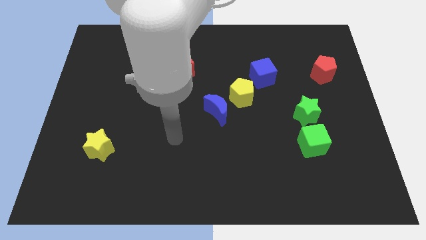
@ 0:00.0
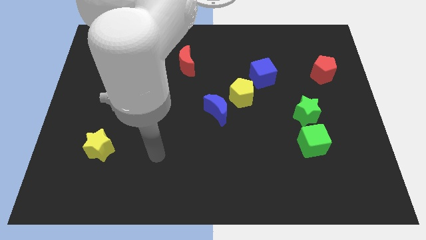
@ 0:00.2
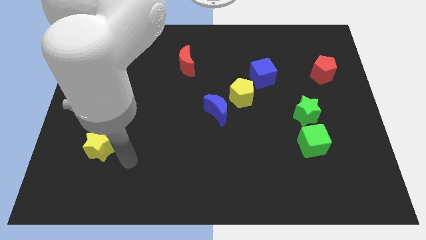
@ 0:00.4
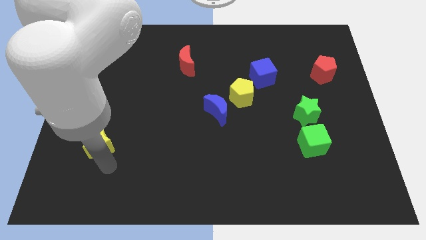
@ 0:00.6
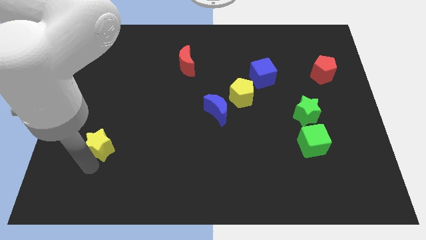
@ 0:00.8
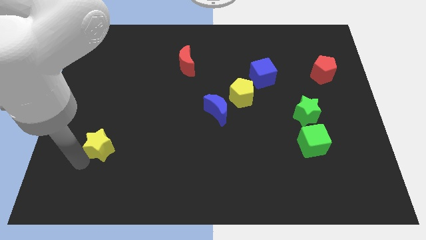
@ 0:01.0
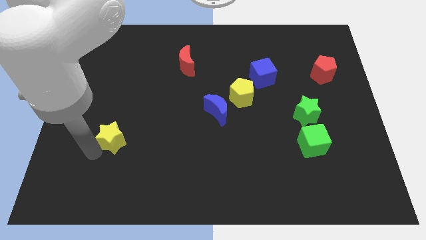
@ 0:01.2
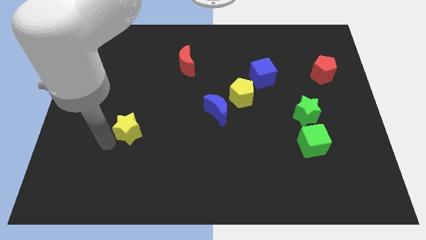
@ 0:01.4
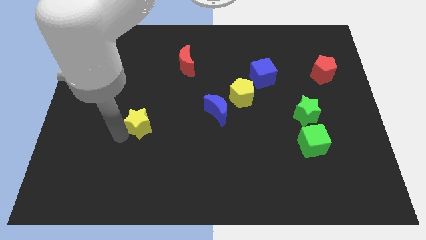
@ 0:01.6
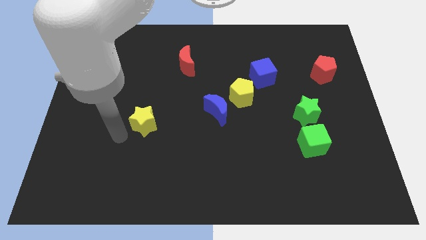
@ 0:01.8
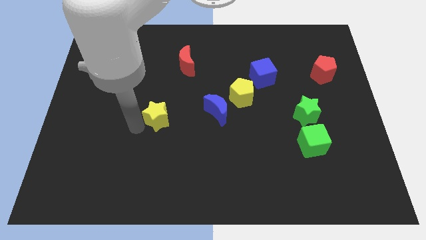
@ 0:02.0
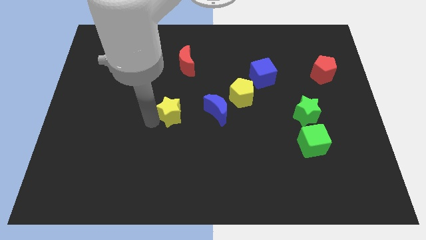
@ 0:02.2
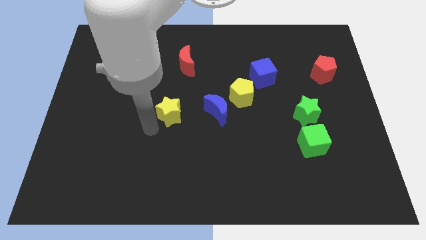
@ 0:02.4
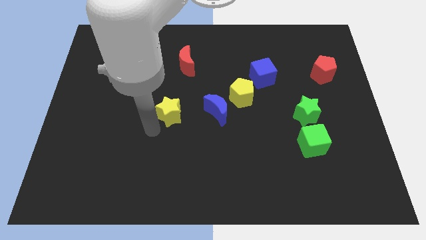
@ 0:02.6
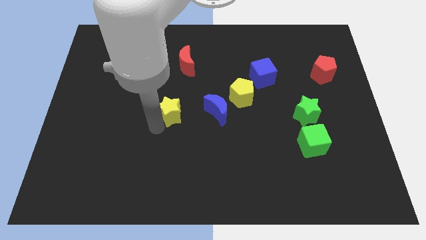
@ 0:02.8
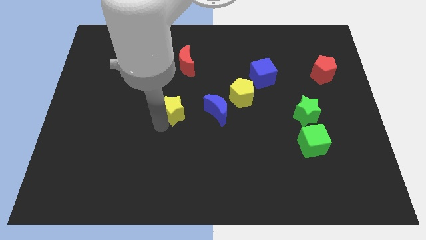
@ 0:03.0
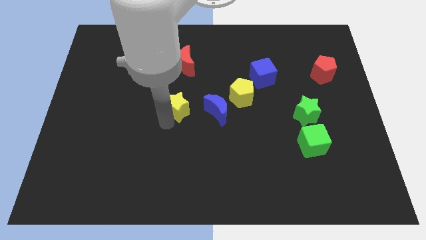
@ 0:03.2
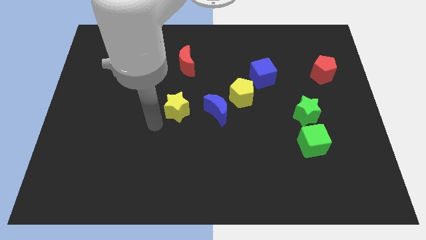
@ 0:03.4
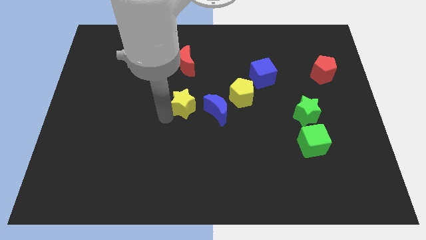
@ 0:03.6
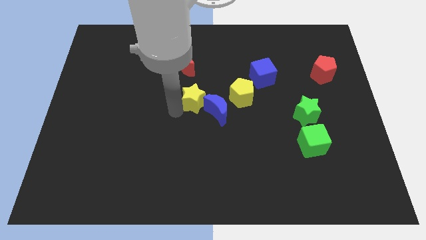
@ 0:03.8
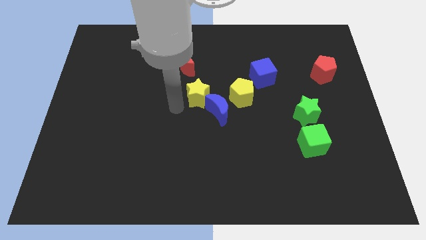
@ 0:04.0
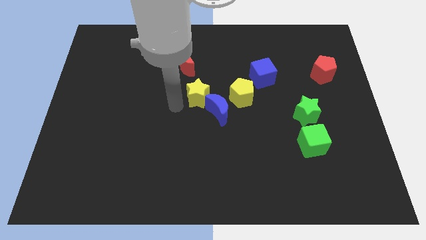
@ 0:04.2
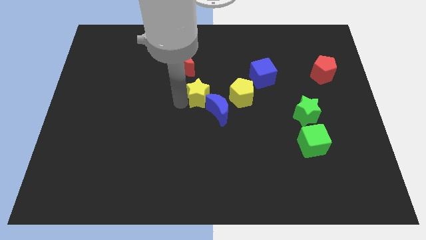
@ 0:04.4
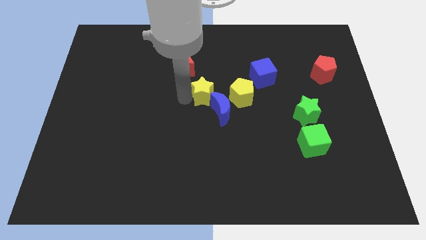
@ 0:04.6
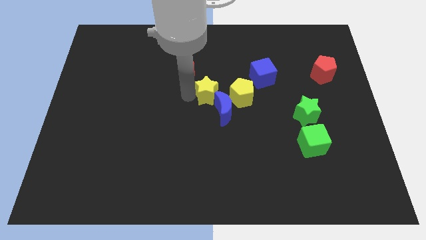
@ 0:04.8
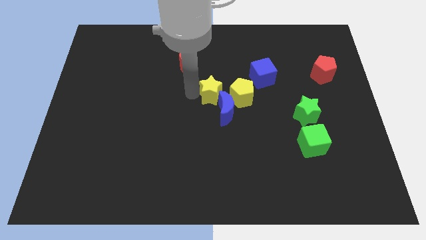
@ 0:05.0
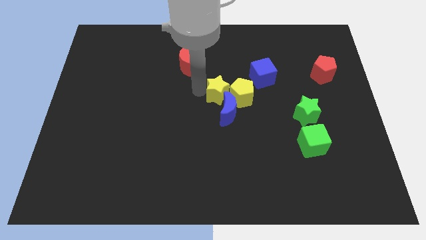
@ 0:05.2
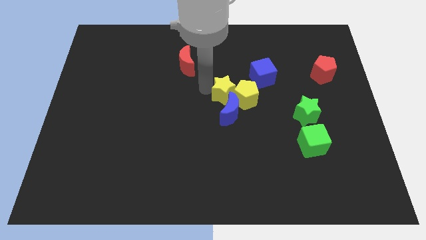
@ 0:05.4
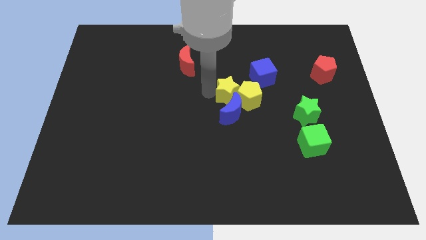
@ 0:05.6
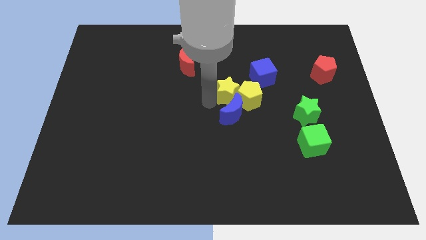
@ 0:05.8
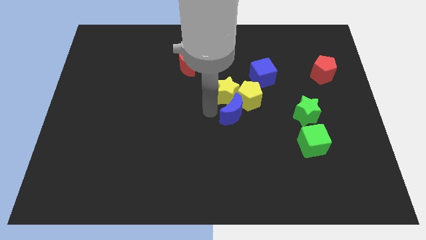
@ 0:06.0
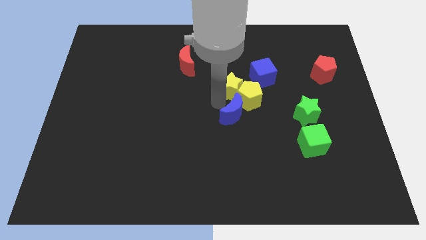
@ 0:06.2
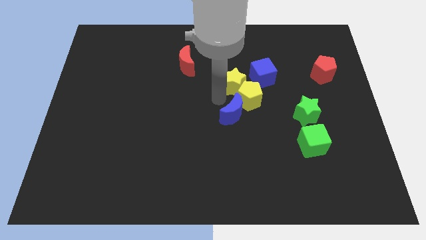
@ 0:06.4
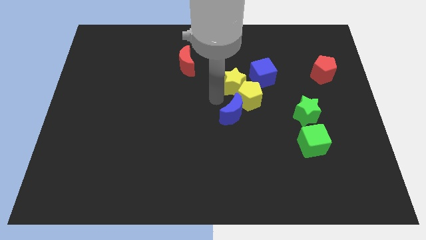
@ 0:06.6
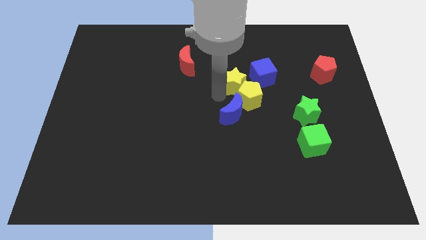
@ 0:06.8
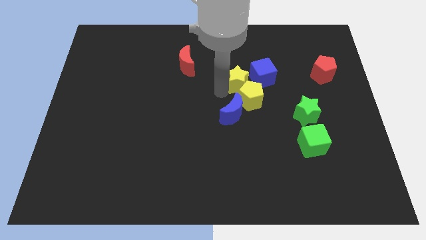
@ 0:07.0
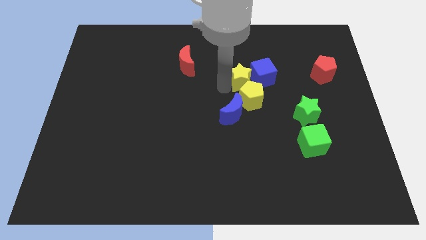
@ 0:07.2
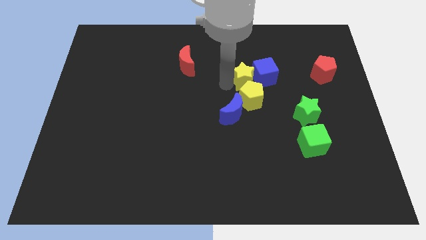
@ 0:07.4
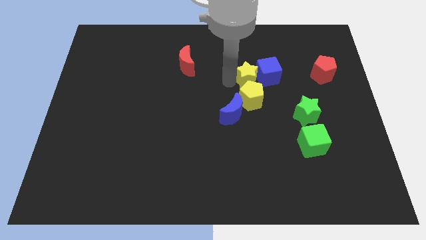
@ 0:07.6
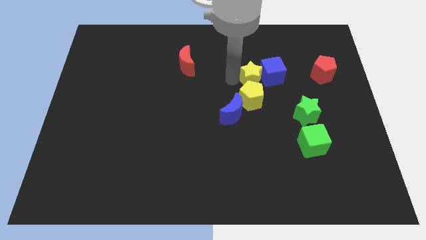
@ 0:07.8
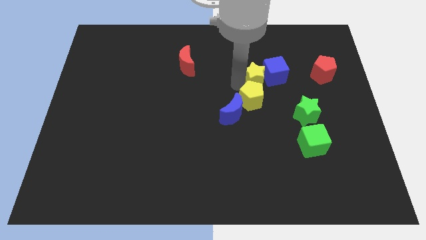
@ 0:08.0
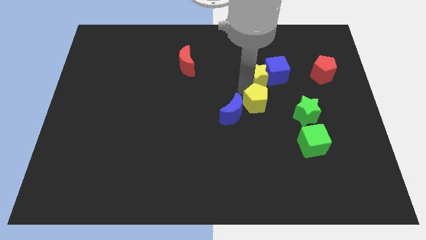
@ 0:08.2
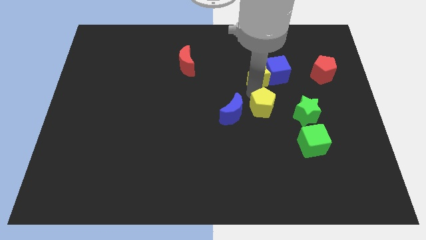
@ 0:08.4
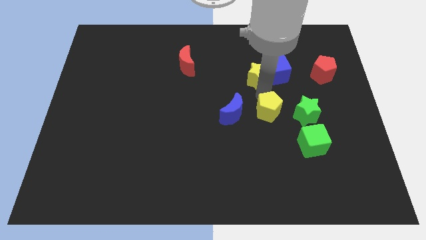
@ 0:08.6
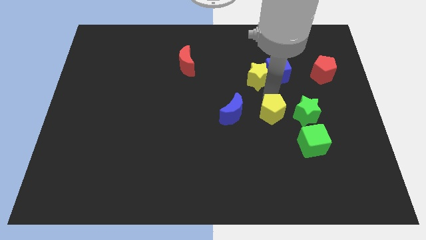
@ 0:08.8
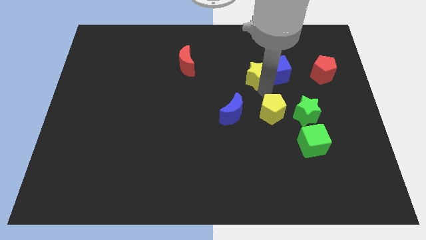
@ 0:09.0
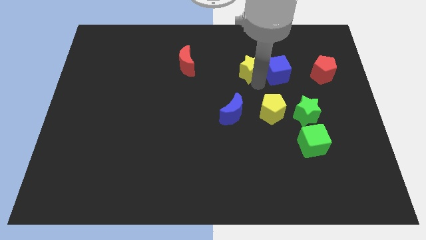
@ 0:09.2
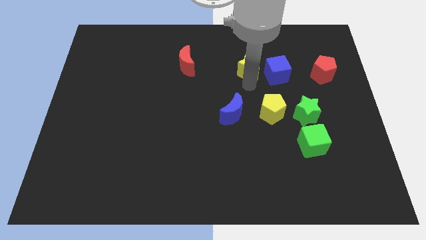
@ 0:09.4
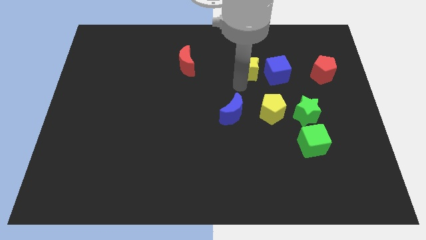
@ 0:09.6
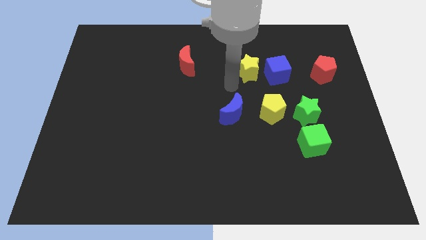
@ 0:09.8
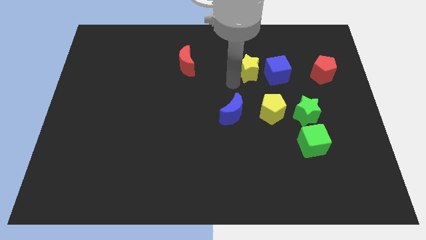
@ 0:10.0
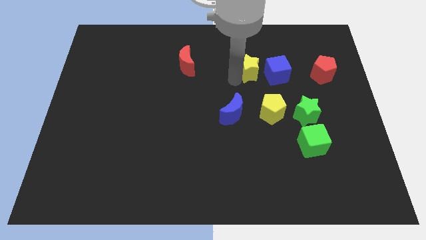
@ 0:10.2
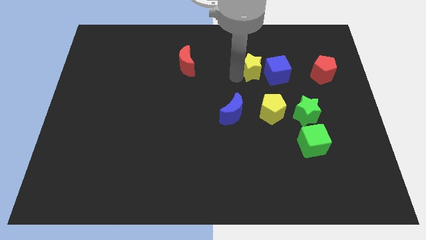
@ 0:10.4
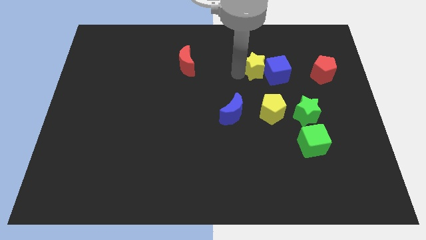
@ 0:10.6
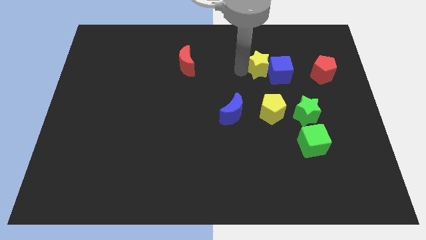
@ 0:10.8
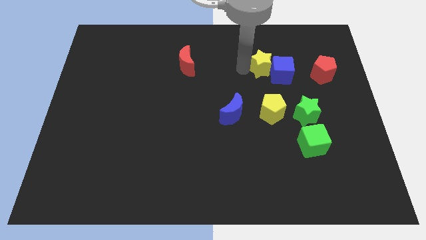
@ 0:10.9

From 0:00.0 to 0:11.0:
move the yellow star to the left side of the red pentagon

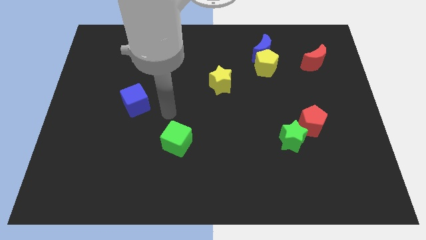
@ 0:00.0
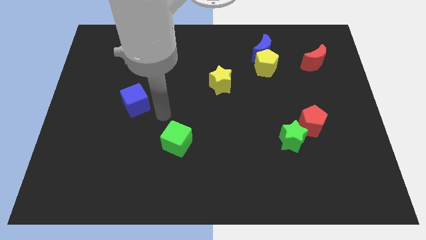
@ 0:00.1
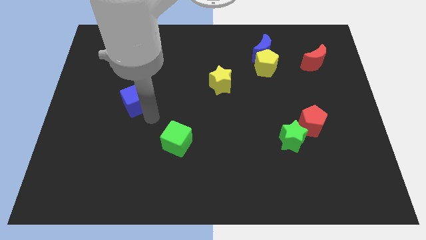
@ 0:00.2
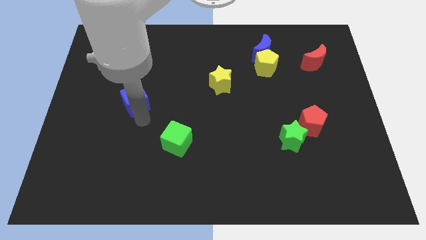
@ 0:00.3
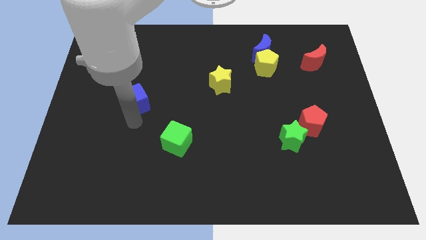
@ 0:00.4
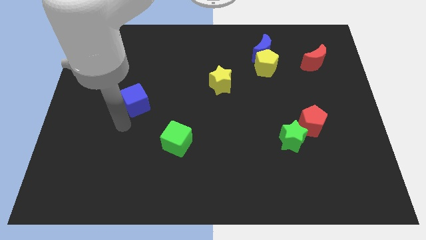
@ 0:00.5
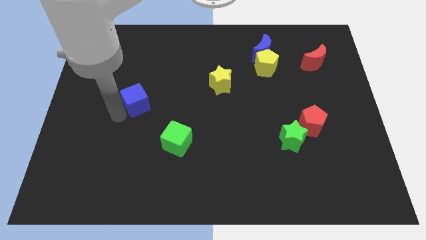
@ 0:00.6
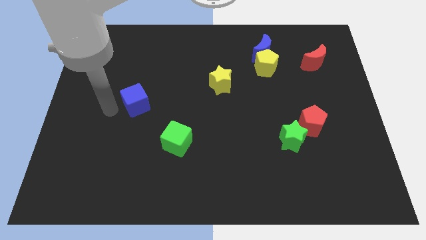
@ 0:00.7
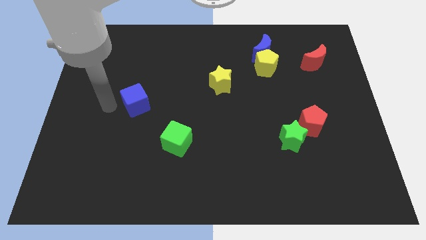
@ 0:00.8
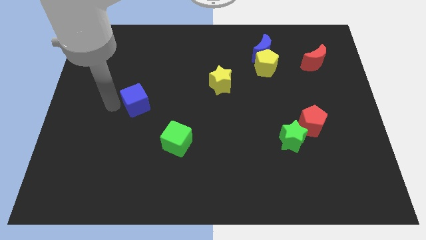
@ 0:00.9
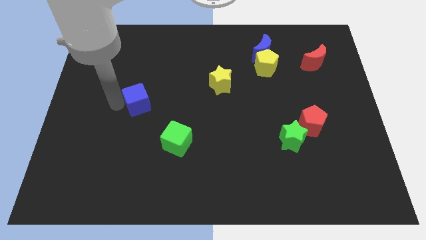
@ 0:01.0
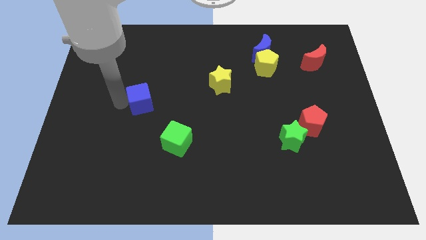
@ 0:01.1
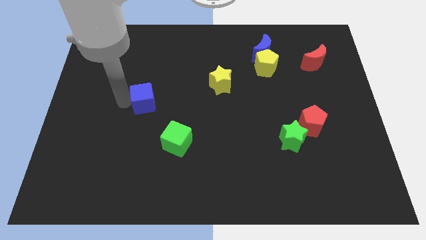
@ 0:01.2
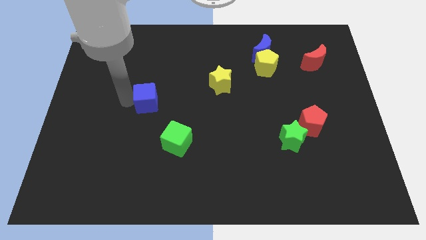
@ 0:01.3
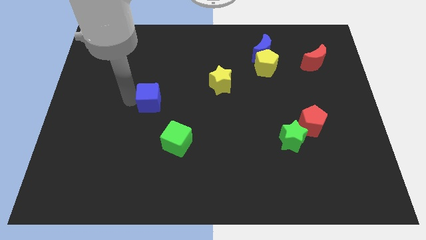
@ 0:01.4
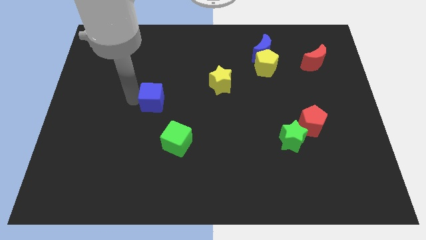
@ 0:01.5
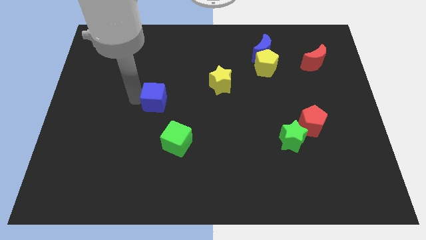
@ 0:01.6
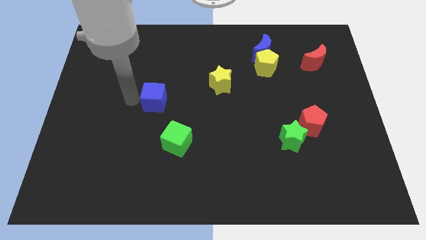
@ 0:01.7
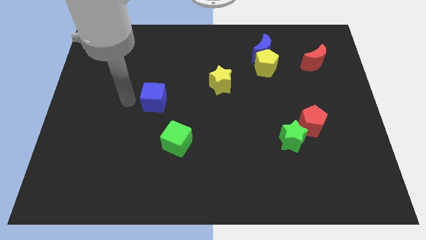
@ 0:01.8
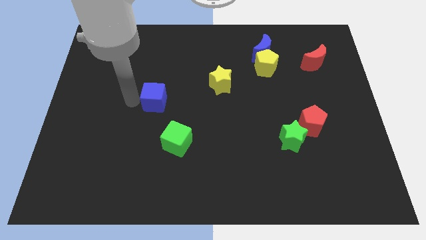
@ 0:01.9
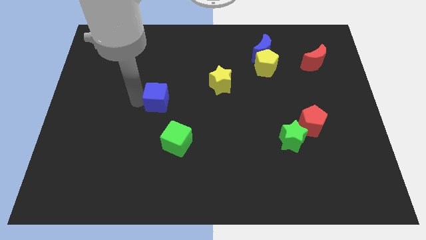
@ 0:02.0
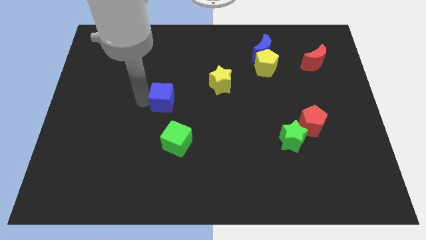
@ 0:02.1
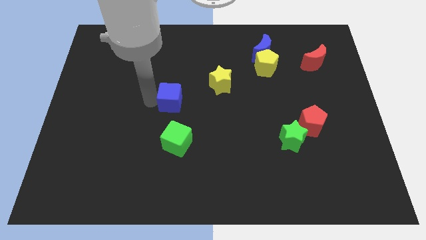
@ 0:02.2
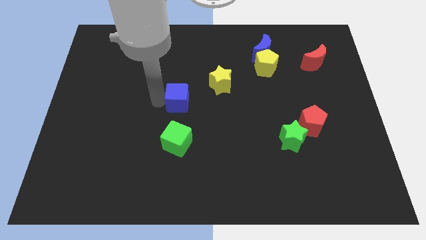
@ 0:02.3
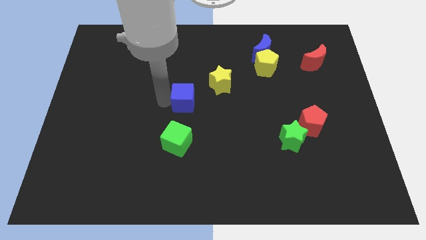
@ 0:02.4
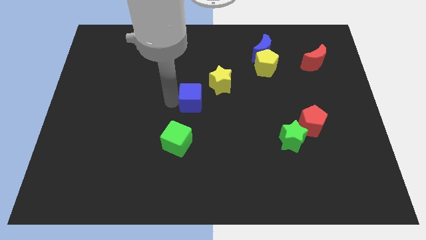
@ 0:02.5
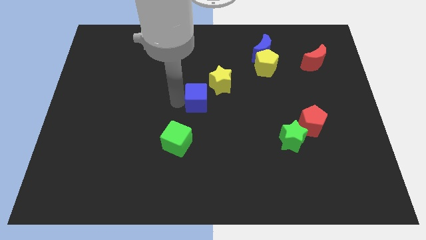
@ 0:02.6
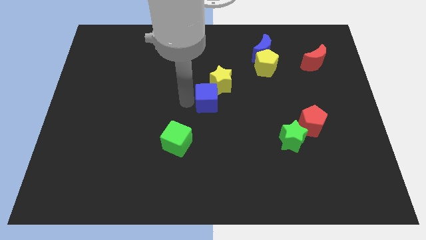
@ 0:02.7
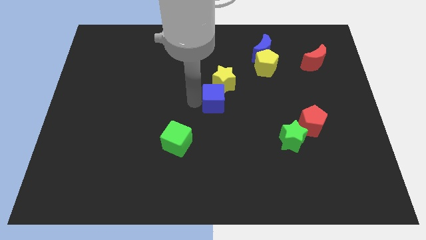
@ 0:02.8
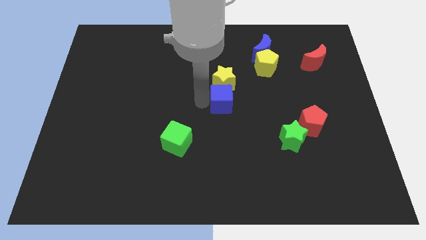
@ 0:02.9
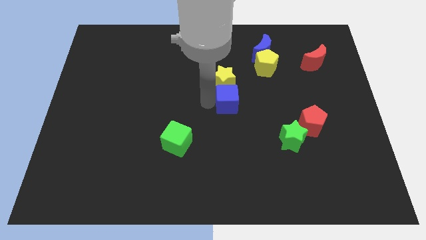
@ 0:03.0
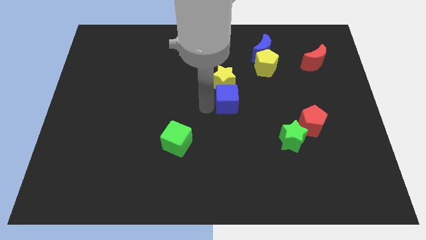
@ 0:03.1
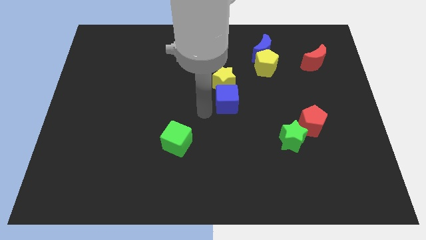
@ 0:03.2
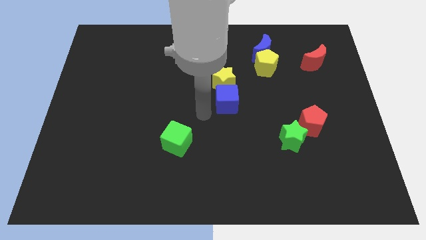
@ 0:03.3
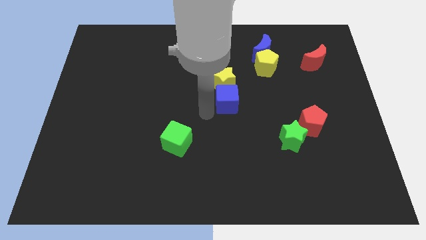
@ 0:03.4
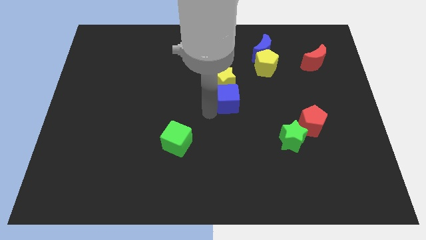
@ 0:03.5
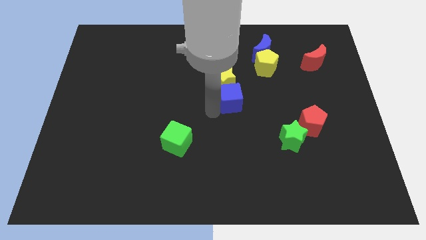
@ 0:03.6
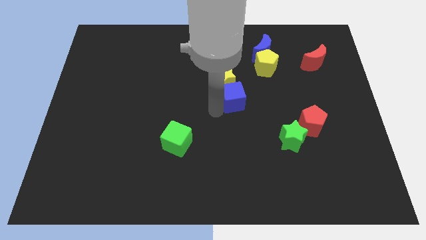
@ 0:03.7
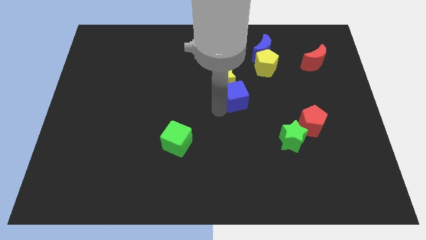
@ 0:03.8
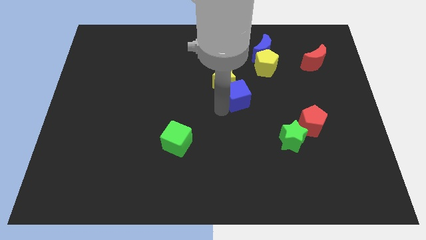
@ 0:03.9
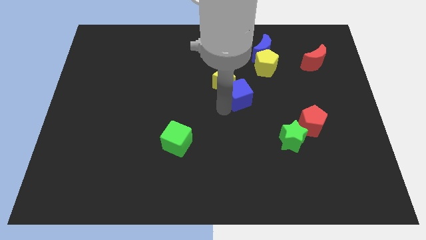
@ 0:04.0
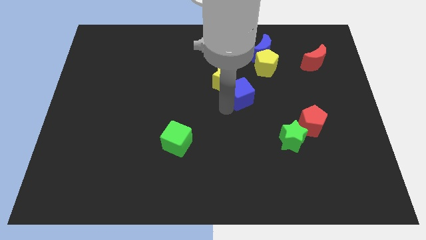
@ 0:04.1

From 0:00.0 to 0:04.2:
push the blue cube to the right side of the yellow star
